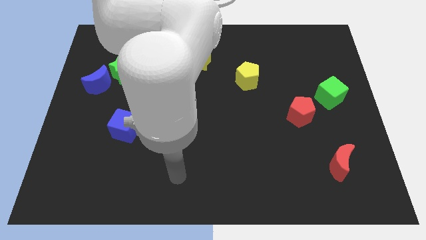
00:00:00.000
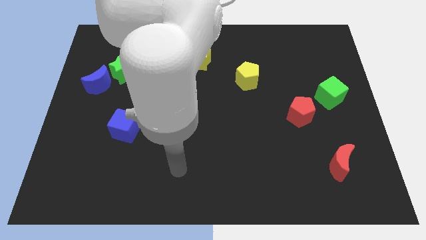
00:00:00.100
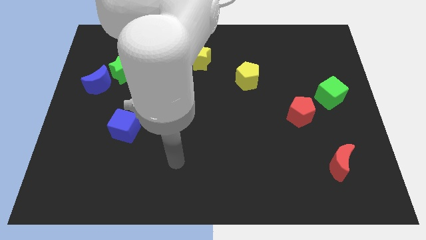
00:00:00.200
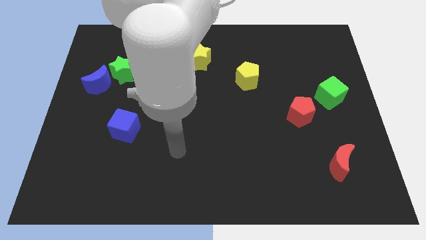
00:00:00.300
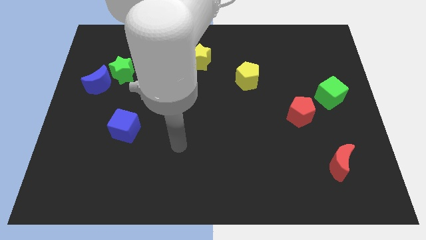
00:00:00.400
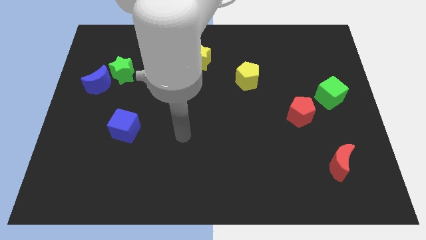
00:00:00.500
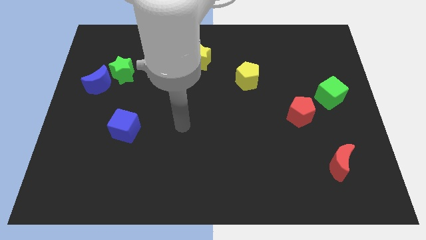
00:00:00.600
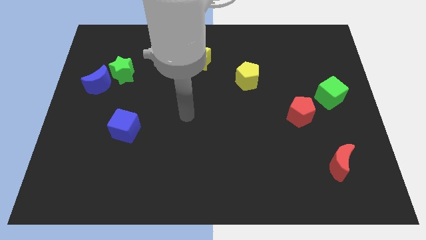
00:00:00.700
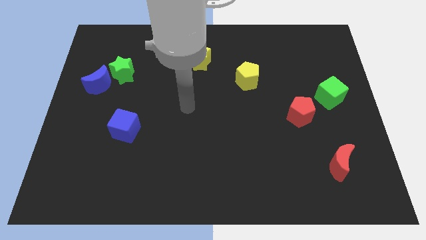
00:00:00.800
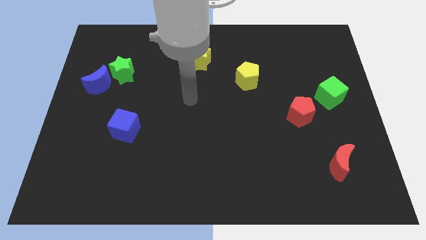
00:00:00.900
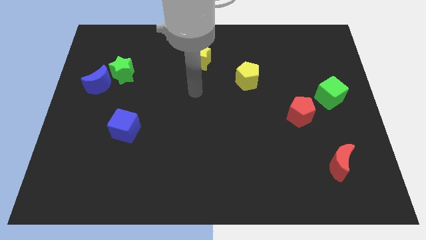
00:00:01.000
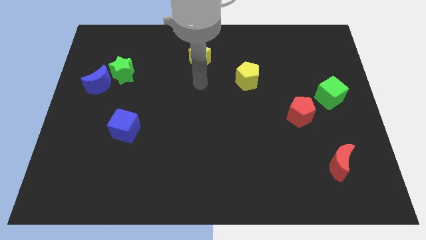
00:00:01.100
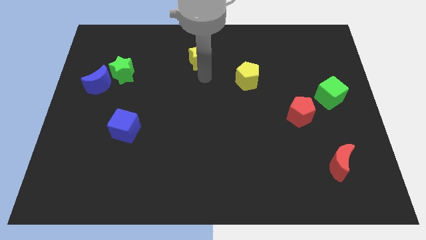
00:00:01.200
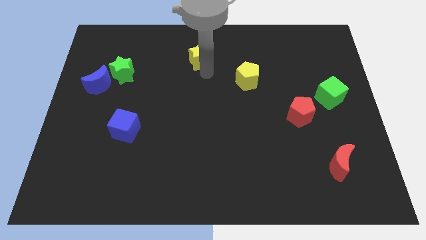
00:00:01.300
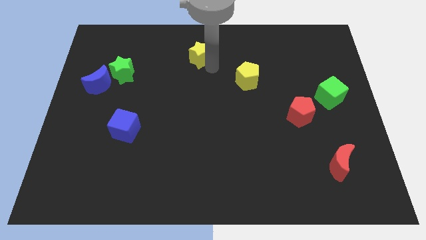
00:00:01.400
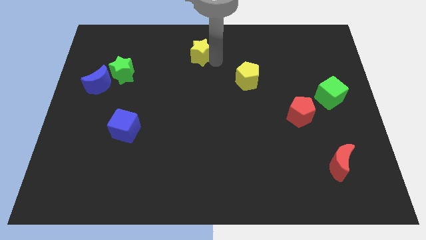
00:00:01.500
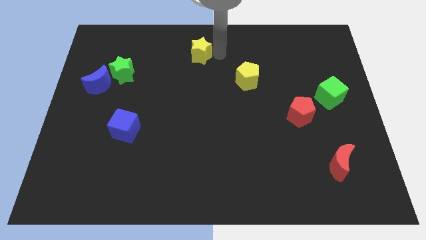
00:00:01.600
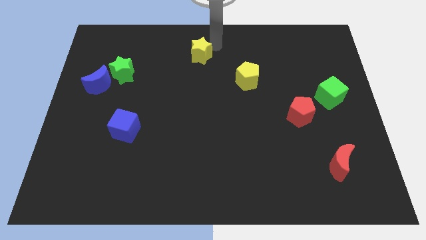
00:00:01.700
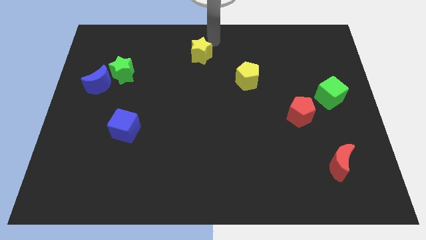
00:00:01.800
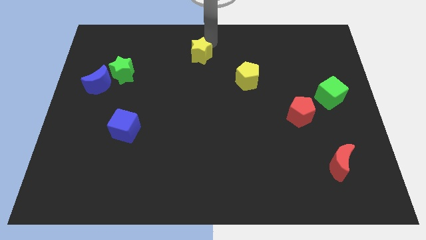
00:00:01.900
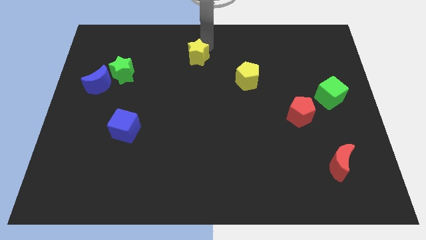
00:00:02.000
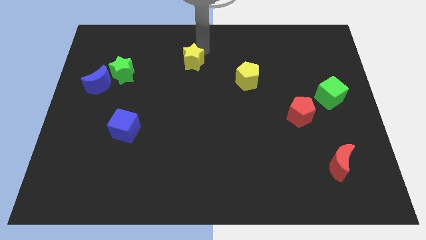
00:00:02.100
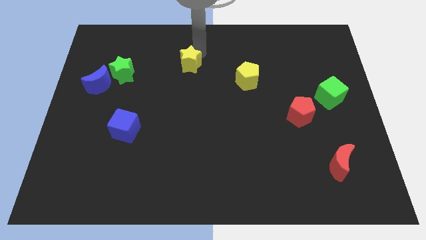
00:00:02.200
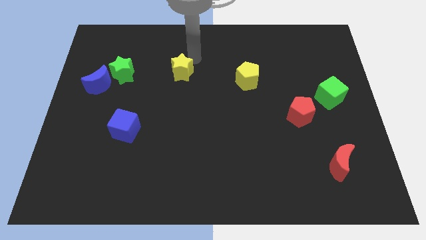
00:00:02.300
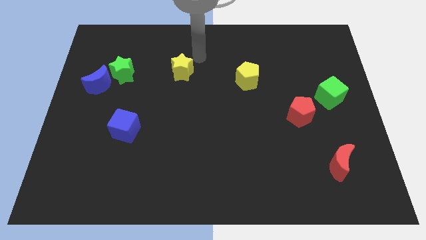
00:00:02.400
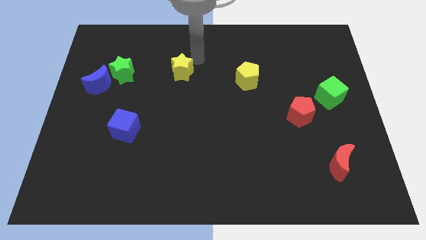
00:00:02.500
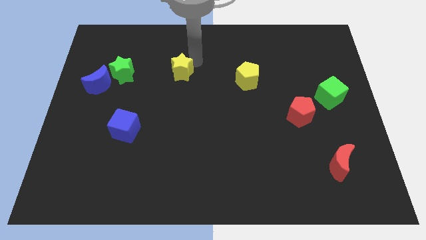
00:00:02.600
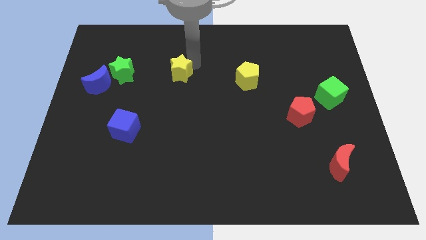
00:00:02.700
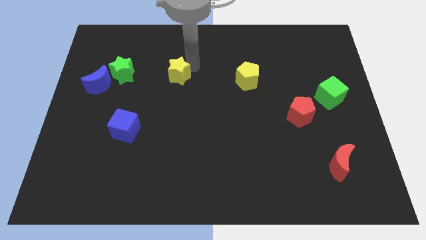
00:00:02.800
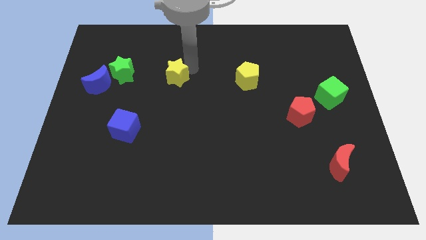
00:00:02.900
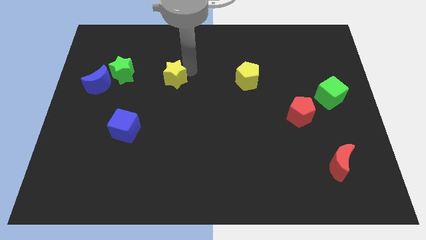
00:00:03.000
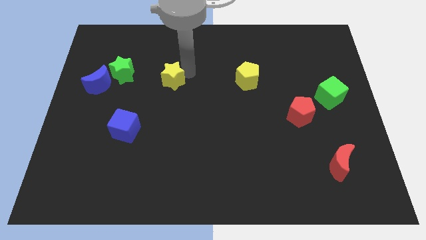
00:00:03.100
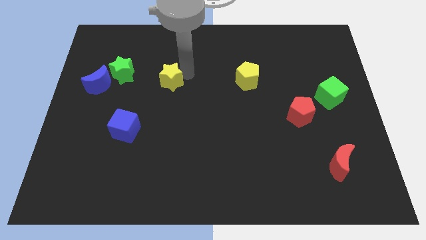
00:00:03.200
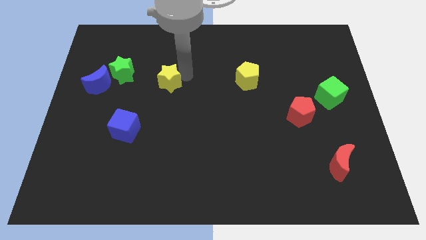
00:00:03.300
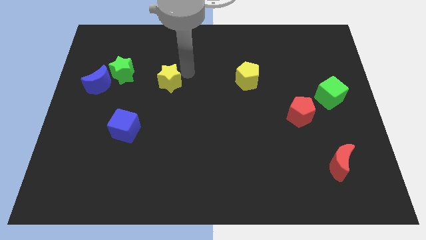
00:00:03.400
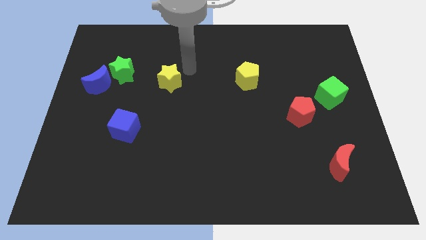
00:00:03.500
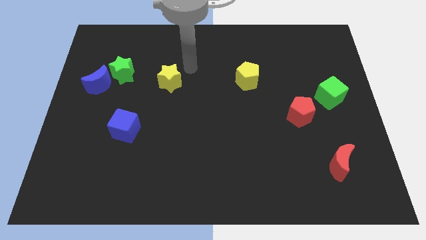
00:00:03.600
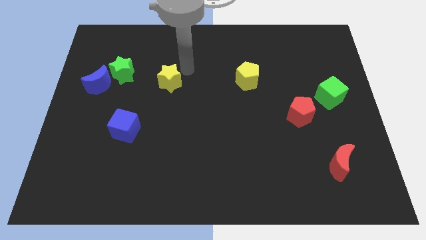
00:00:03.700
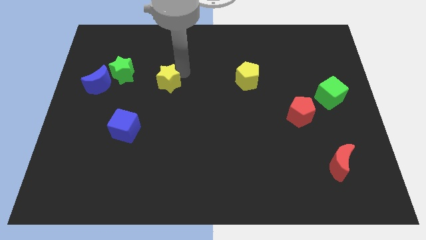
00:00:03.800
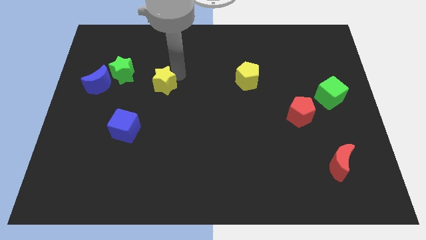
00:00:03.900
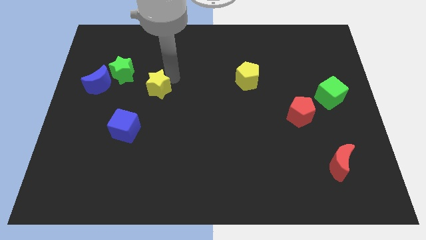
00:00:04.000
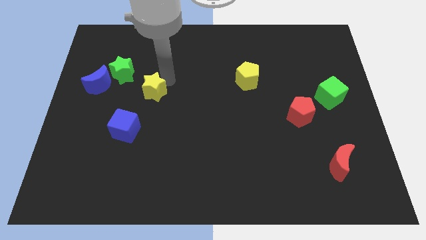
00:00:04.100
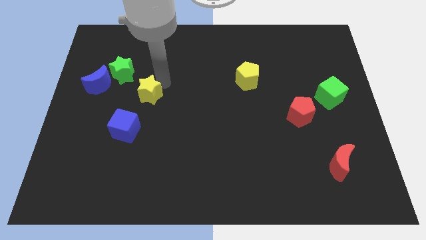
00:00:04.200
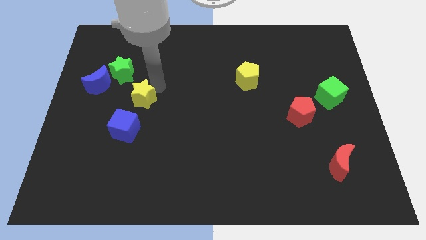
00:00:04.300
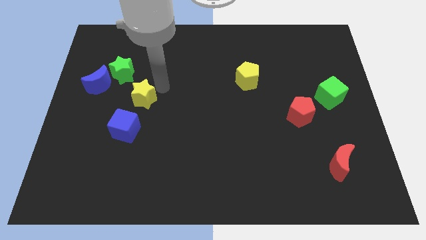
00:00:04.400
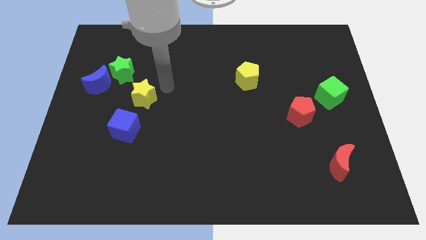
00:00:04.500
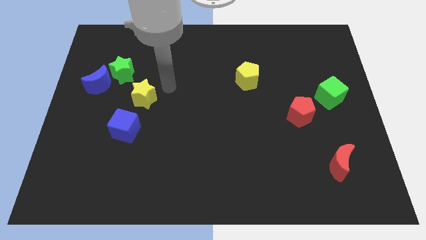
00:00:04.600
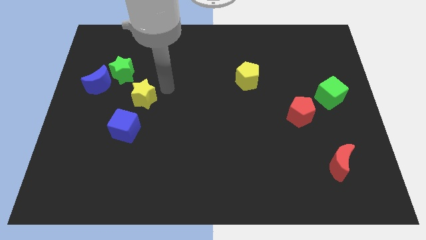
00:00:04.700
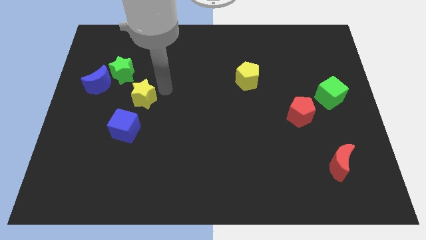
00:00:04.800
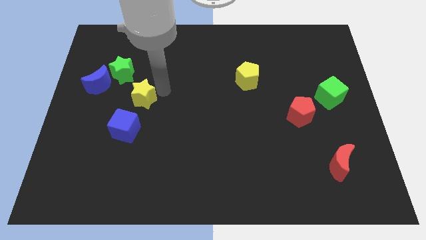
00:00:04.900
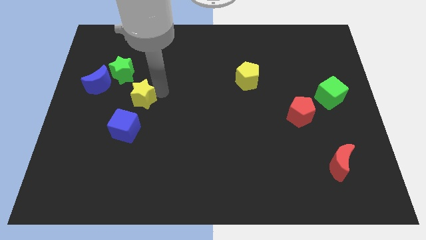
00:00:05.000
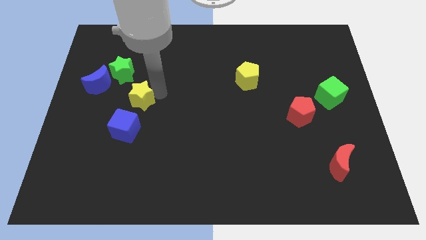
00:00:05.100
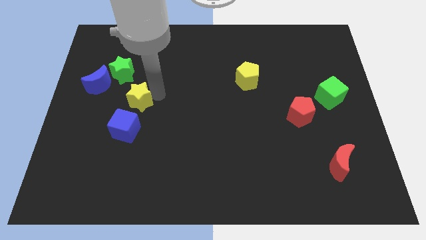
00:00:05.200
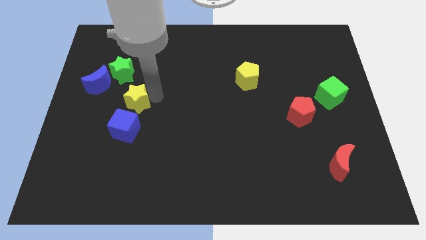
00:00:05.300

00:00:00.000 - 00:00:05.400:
push the yellow star diagonally downwards and left

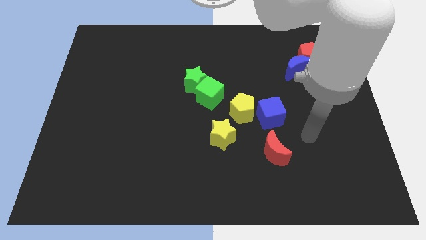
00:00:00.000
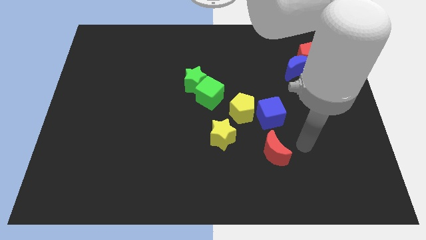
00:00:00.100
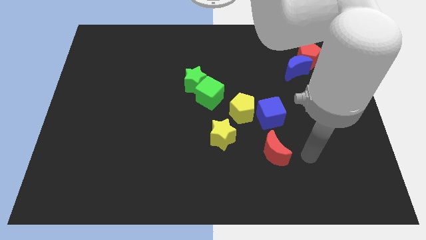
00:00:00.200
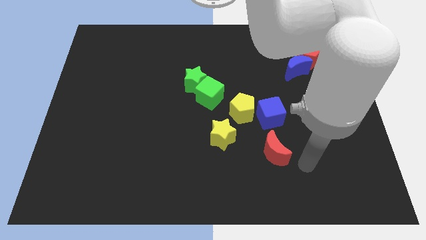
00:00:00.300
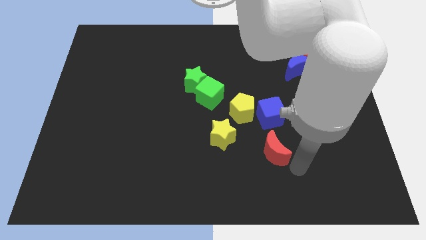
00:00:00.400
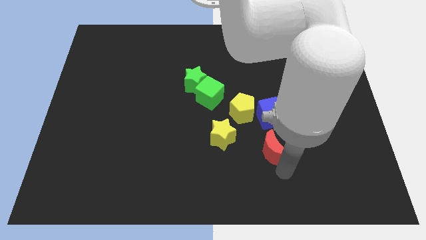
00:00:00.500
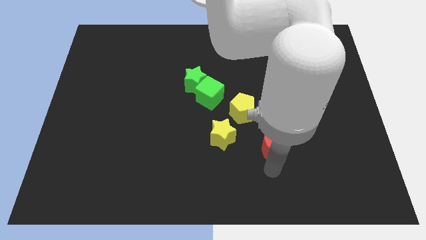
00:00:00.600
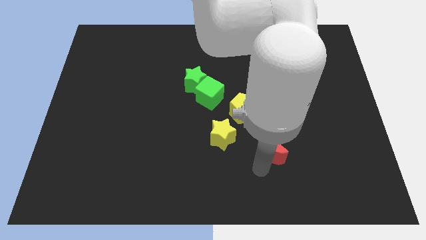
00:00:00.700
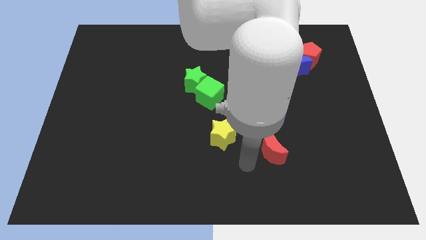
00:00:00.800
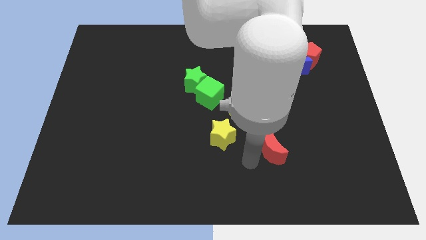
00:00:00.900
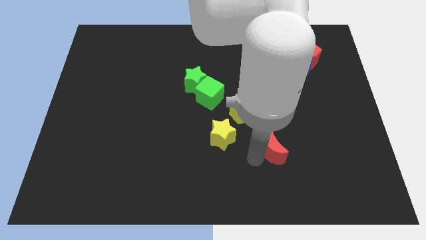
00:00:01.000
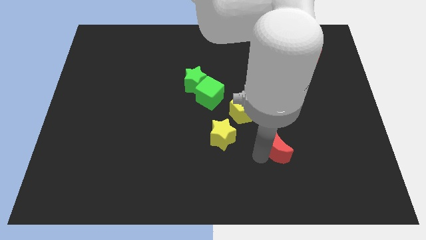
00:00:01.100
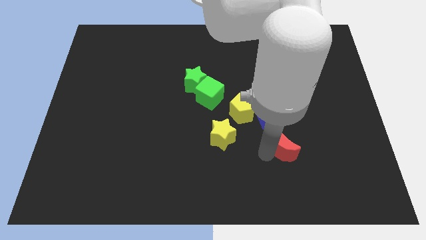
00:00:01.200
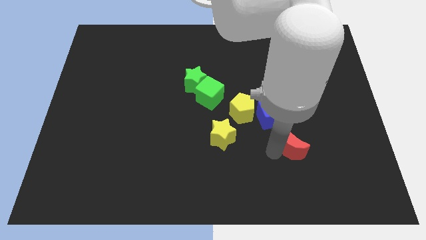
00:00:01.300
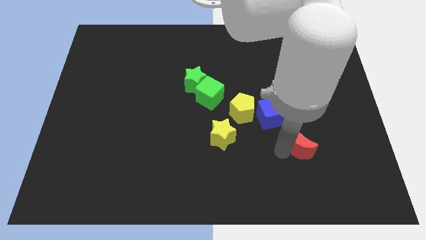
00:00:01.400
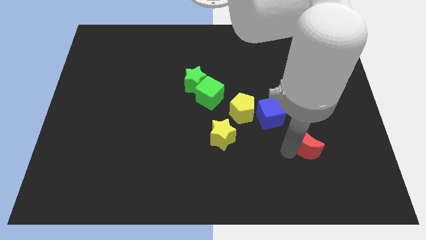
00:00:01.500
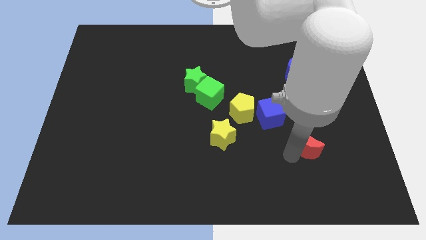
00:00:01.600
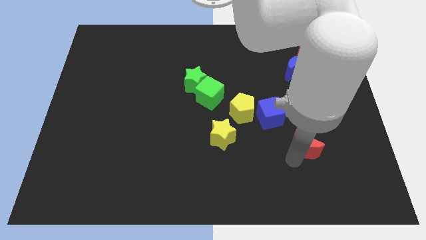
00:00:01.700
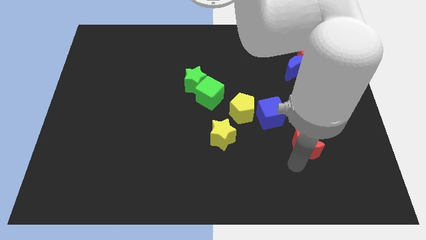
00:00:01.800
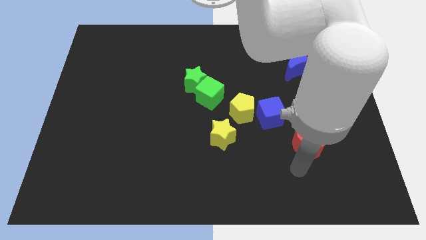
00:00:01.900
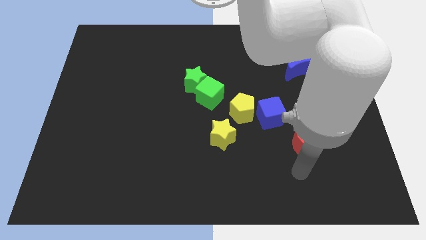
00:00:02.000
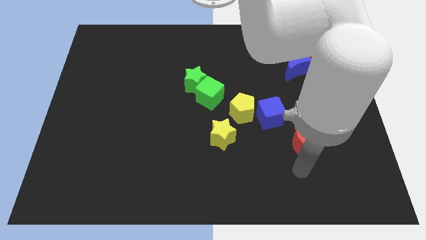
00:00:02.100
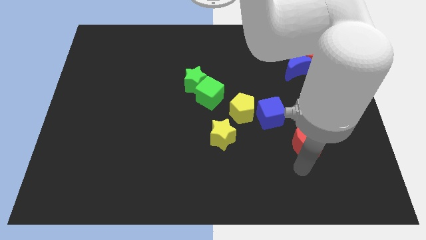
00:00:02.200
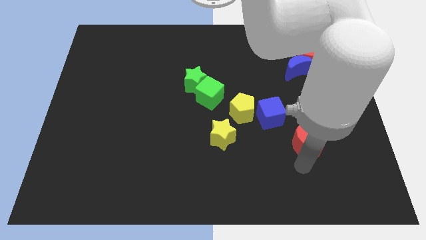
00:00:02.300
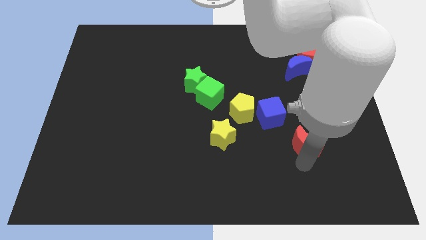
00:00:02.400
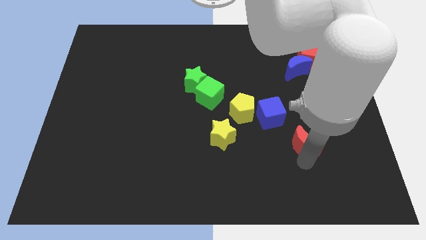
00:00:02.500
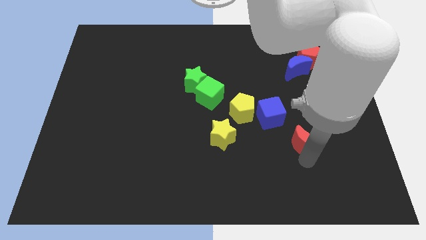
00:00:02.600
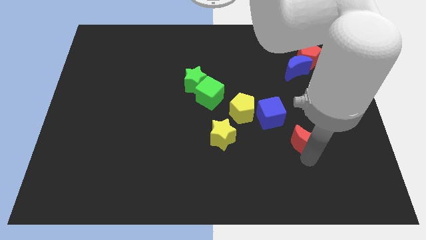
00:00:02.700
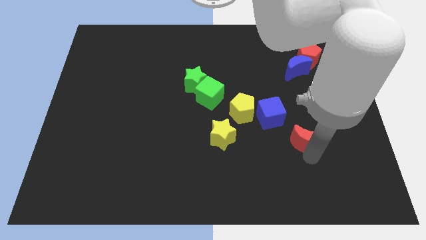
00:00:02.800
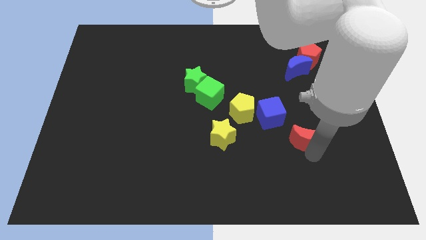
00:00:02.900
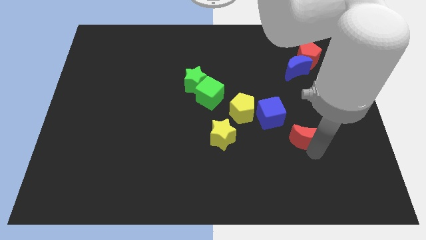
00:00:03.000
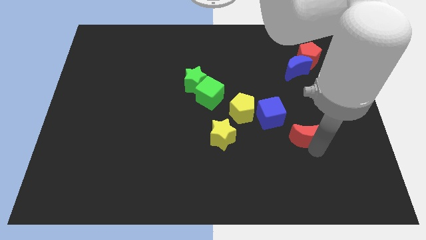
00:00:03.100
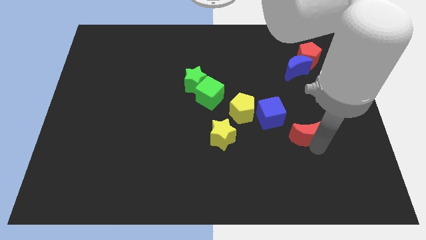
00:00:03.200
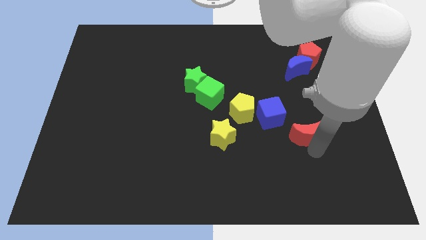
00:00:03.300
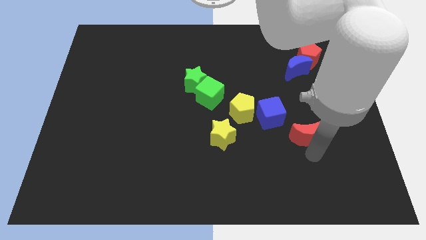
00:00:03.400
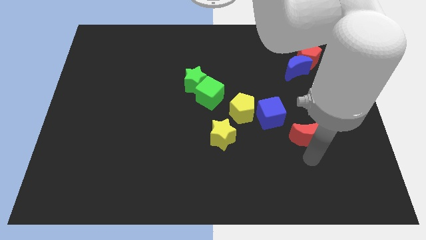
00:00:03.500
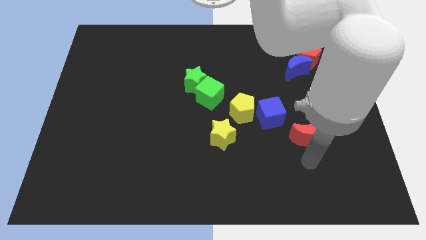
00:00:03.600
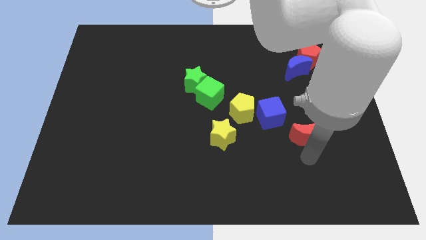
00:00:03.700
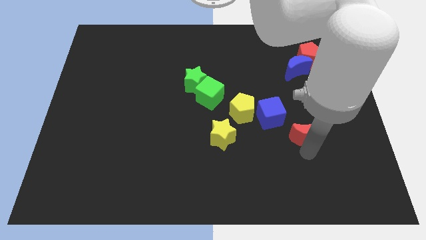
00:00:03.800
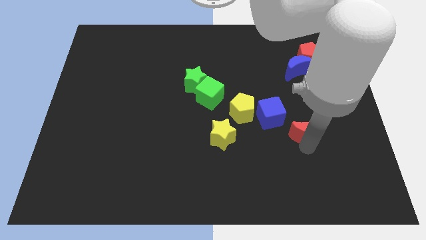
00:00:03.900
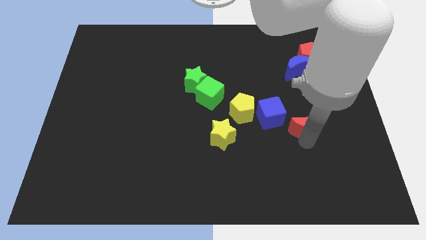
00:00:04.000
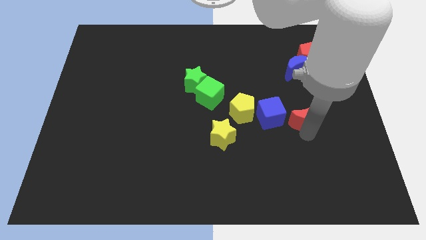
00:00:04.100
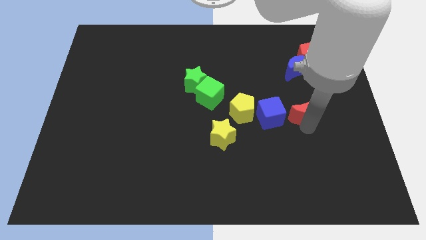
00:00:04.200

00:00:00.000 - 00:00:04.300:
slide the red moon upwards a bit
